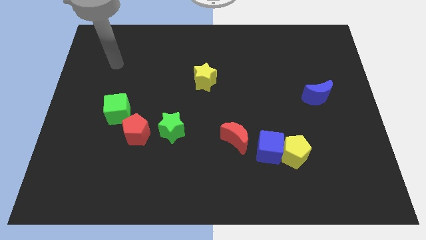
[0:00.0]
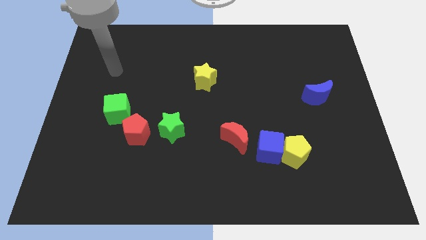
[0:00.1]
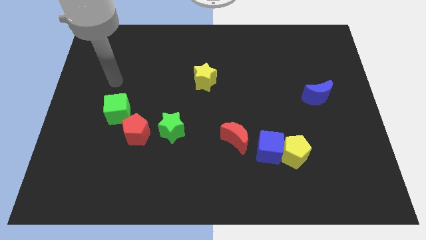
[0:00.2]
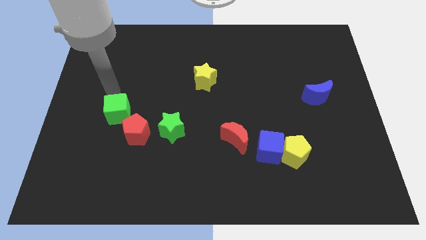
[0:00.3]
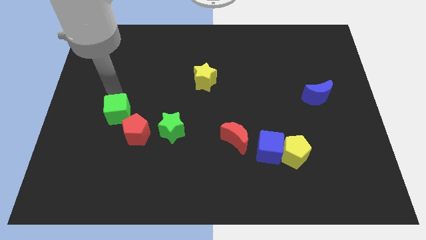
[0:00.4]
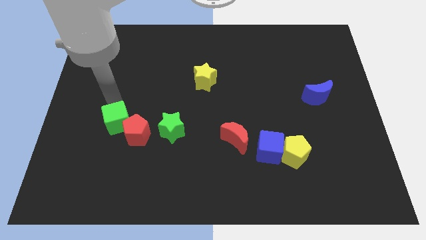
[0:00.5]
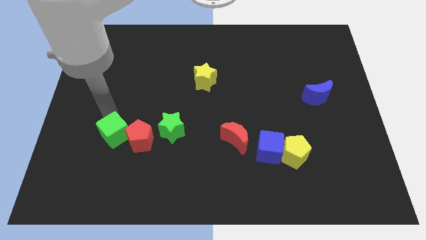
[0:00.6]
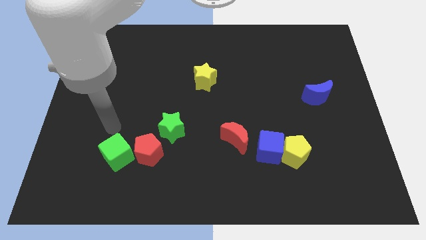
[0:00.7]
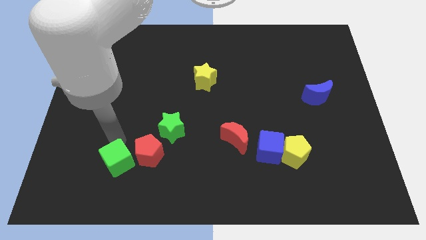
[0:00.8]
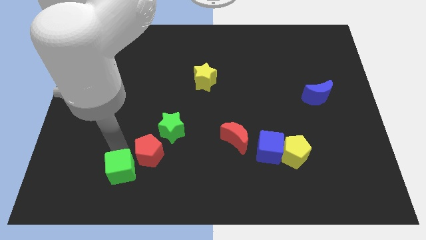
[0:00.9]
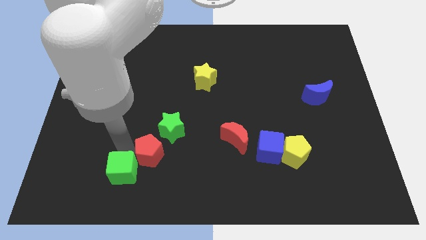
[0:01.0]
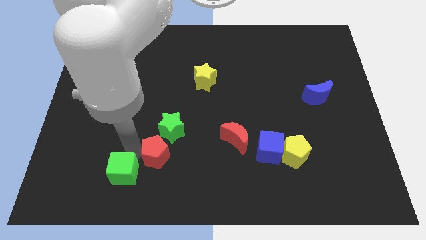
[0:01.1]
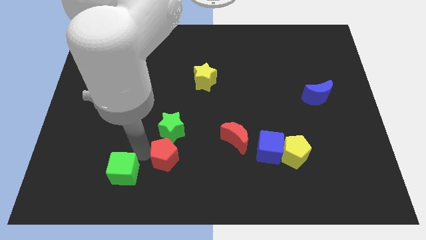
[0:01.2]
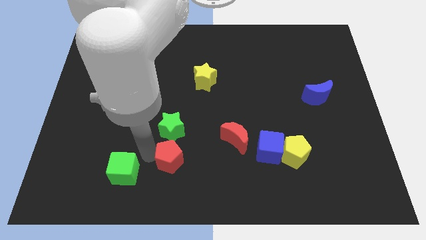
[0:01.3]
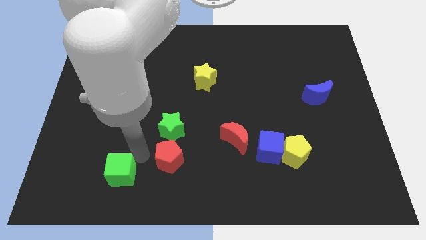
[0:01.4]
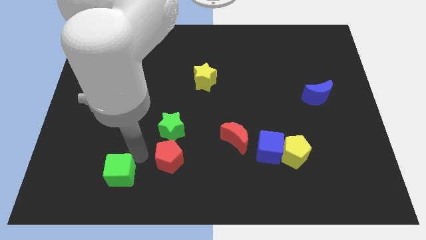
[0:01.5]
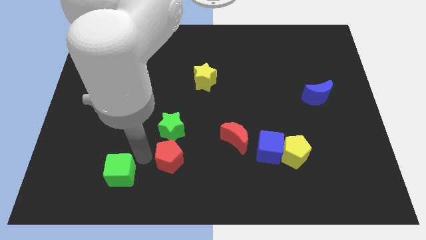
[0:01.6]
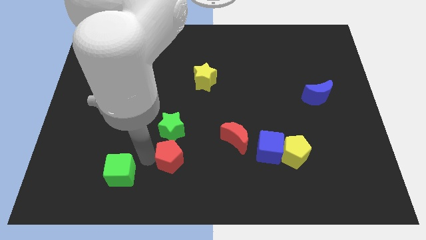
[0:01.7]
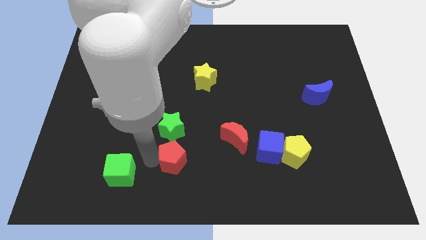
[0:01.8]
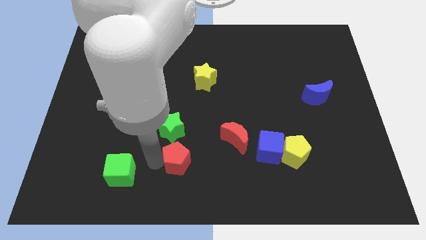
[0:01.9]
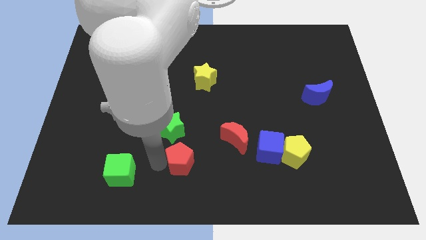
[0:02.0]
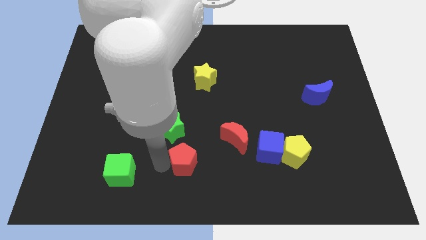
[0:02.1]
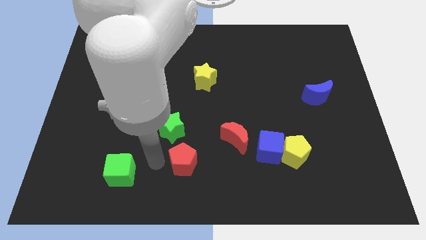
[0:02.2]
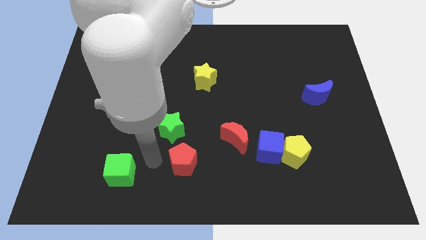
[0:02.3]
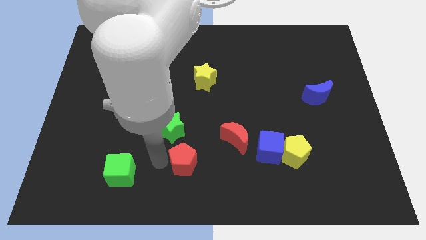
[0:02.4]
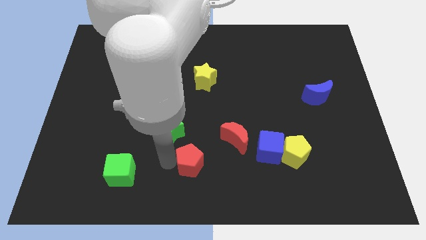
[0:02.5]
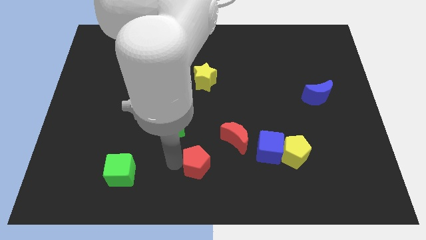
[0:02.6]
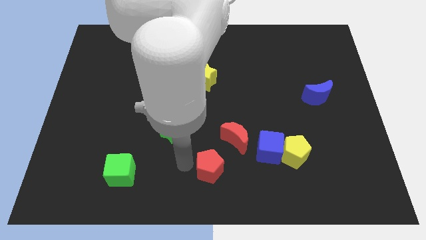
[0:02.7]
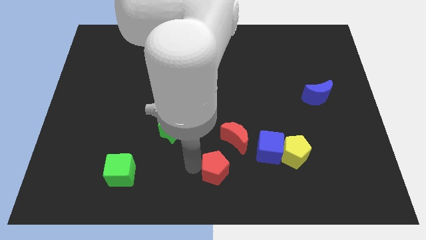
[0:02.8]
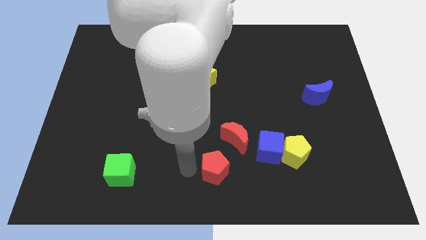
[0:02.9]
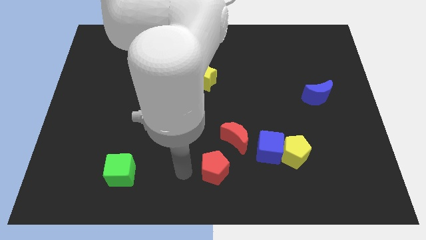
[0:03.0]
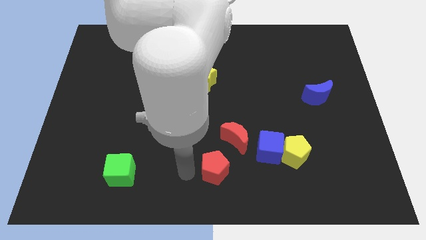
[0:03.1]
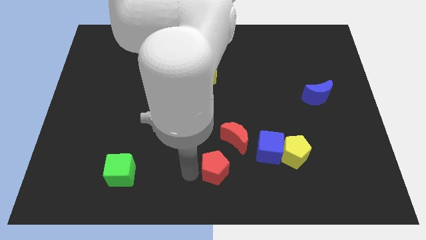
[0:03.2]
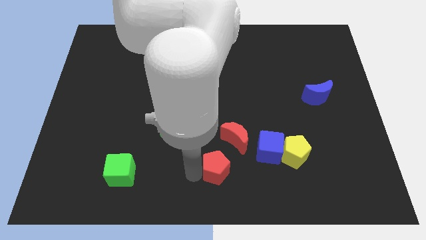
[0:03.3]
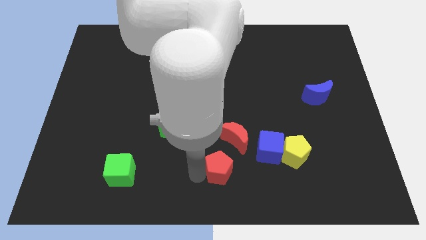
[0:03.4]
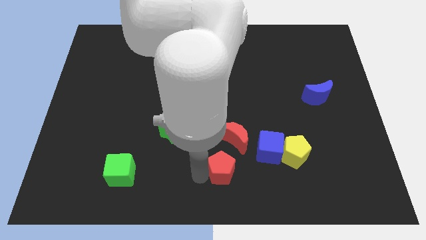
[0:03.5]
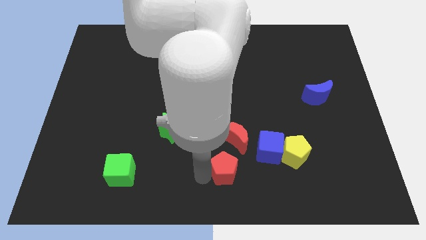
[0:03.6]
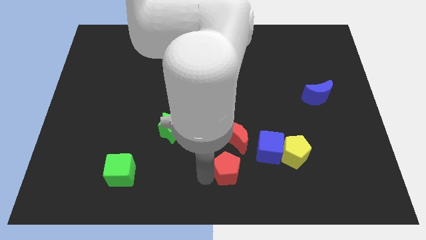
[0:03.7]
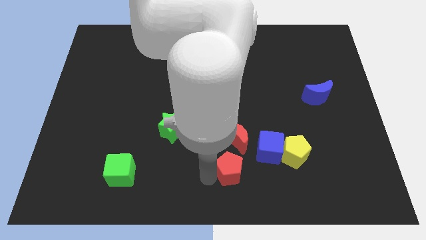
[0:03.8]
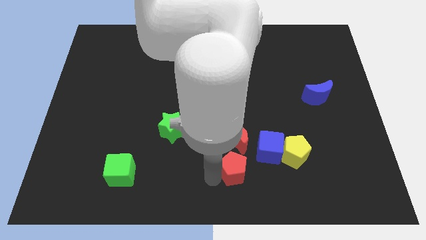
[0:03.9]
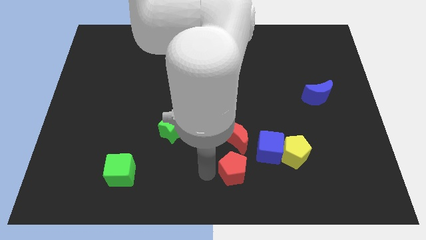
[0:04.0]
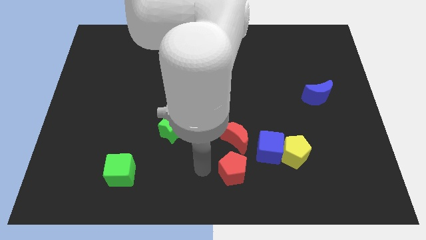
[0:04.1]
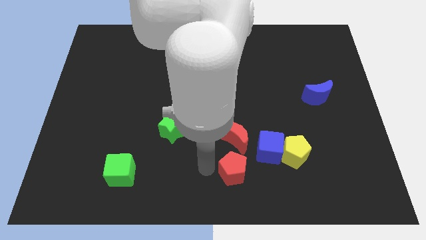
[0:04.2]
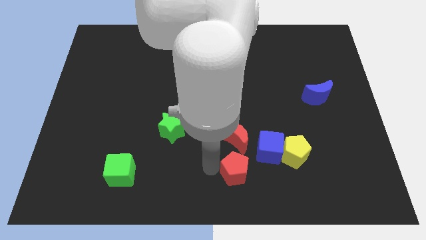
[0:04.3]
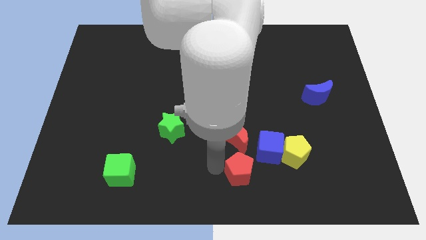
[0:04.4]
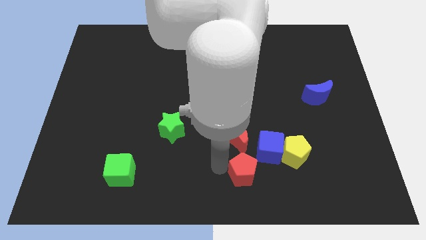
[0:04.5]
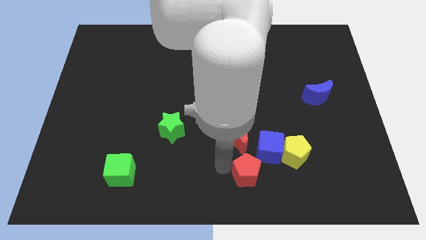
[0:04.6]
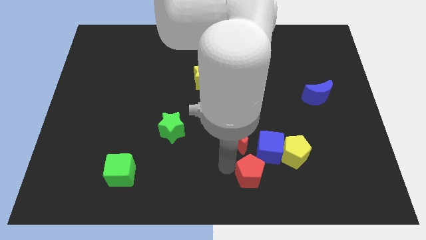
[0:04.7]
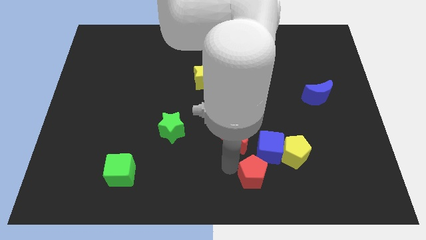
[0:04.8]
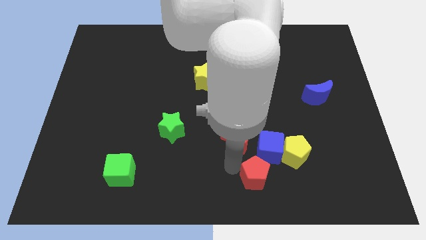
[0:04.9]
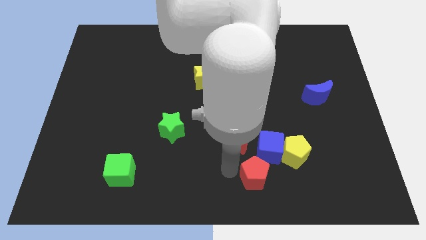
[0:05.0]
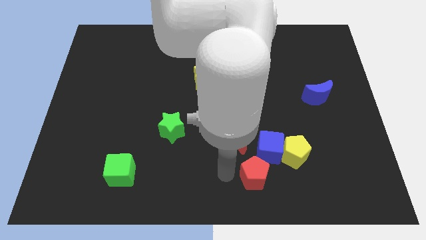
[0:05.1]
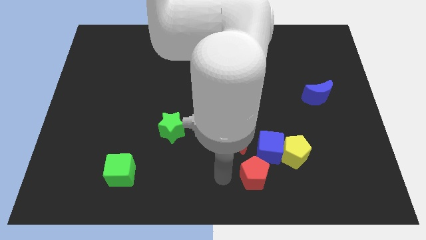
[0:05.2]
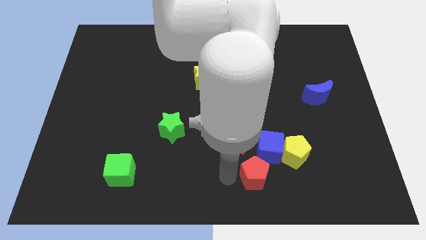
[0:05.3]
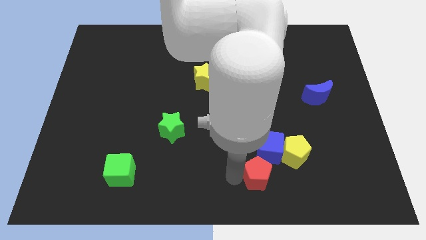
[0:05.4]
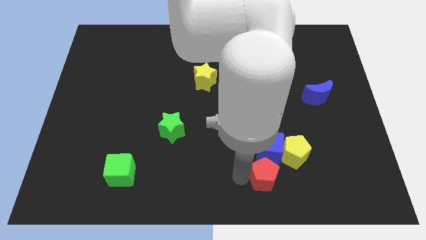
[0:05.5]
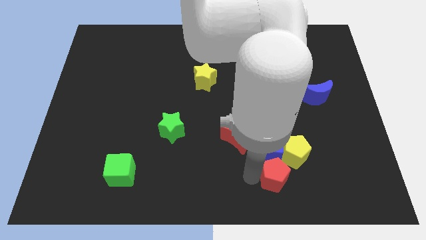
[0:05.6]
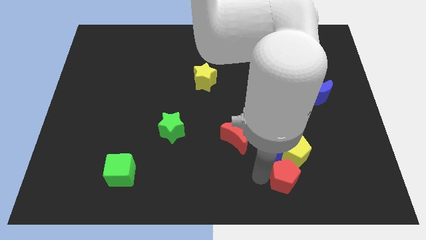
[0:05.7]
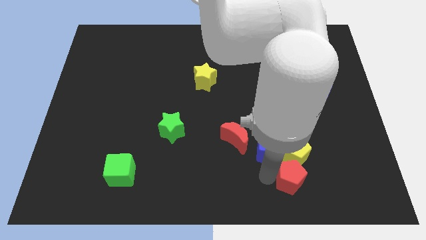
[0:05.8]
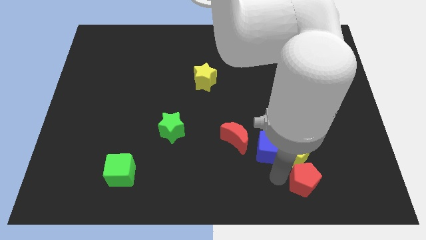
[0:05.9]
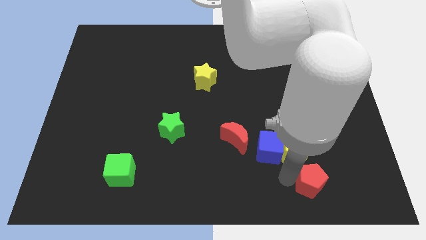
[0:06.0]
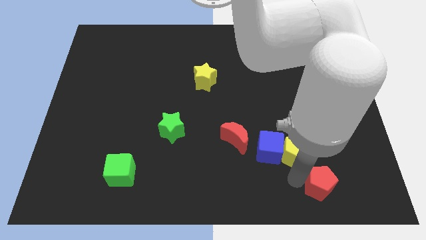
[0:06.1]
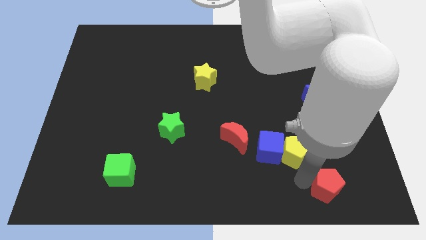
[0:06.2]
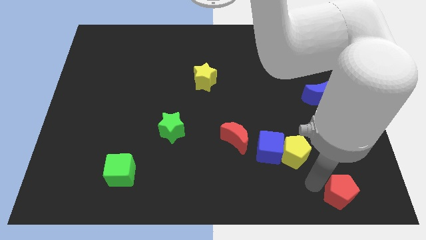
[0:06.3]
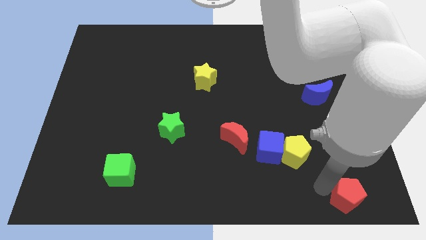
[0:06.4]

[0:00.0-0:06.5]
move the red pentagon to the bottom right corner
